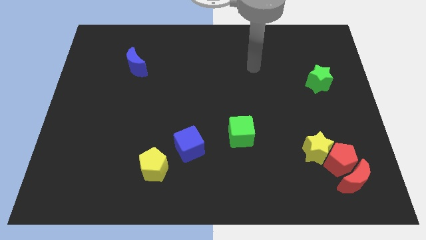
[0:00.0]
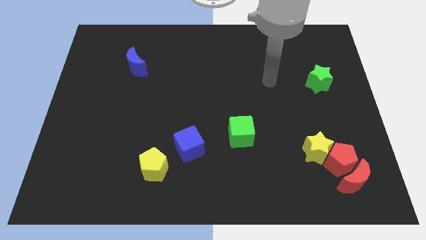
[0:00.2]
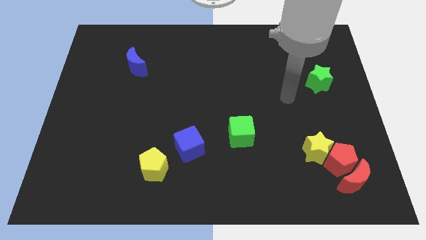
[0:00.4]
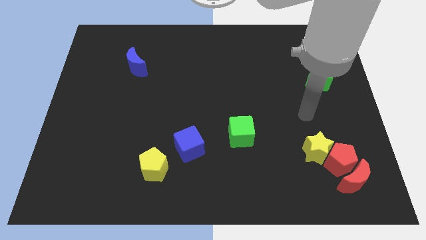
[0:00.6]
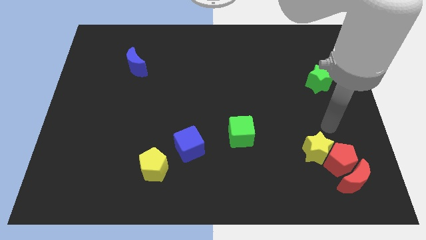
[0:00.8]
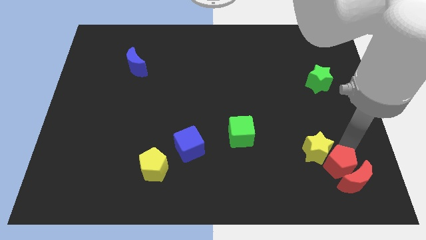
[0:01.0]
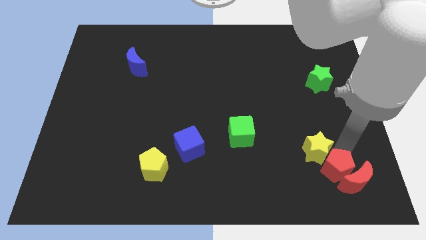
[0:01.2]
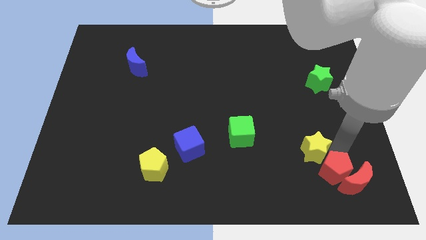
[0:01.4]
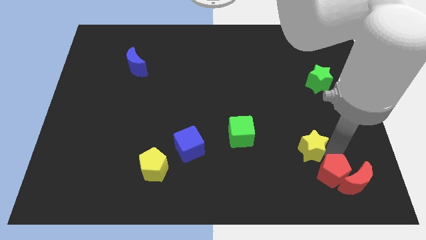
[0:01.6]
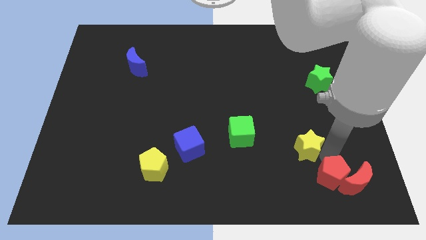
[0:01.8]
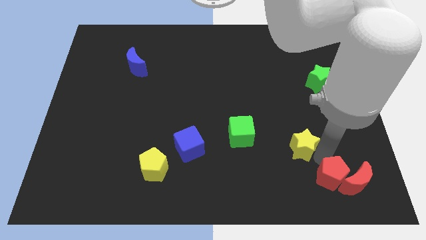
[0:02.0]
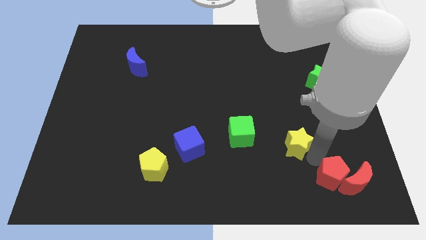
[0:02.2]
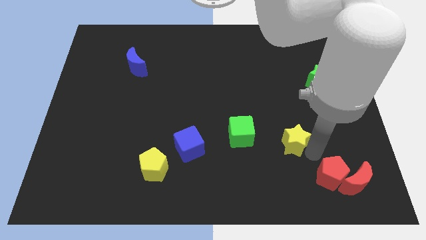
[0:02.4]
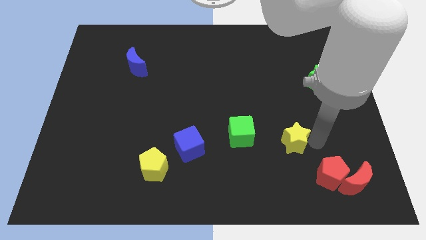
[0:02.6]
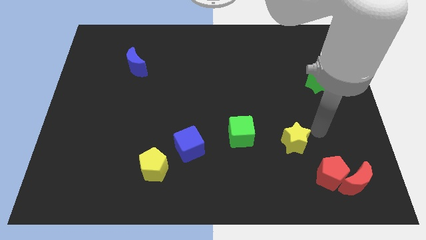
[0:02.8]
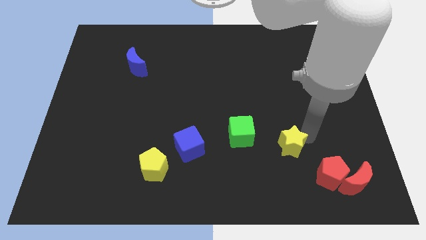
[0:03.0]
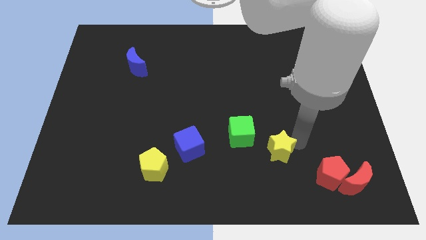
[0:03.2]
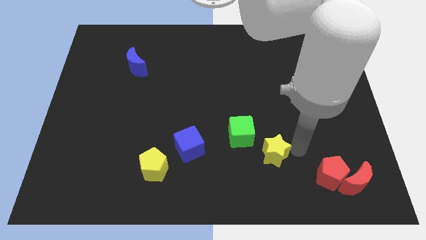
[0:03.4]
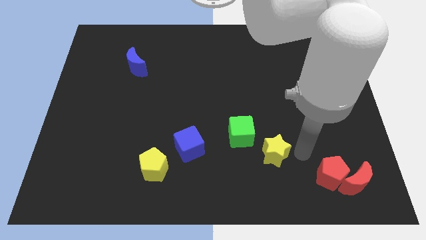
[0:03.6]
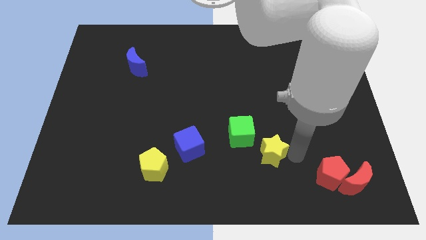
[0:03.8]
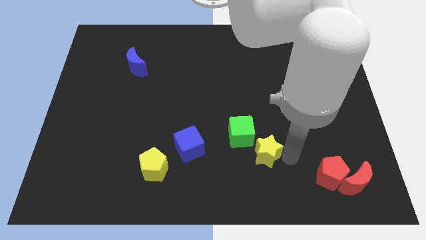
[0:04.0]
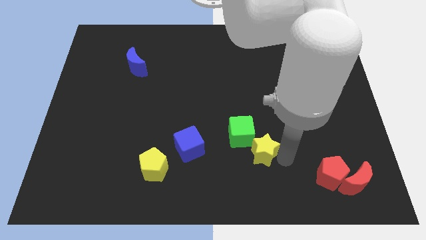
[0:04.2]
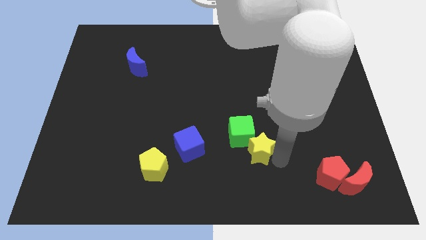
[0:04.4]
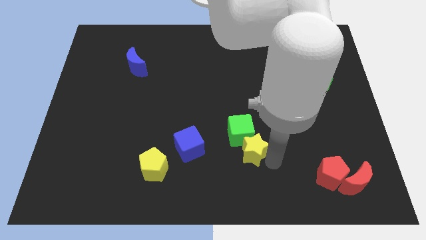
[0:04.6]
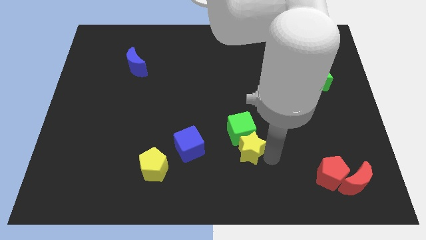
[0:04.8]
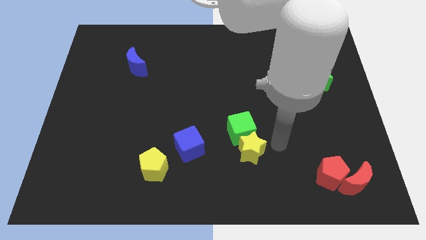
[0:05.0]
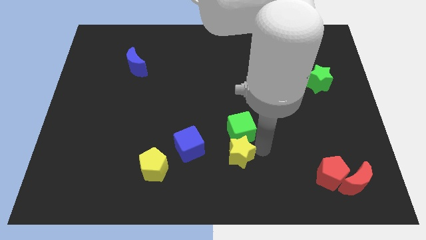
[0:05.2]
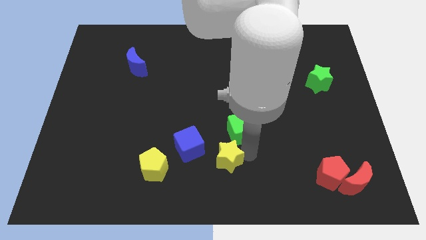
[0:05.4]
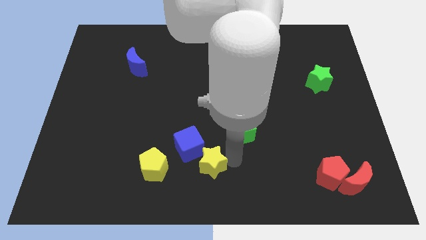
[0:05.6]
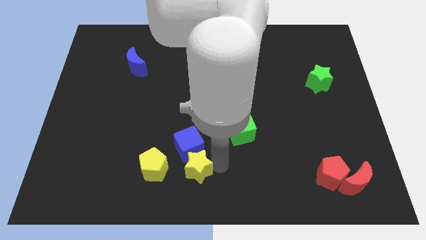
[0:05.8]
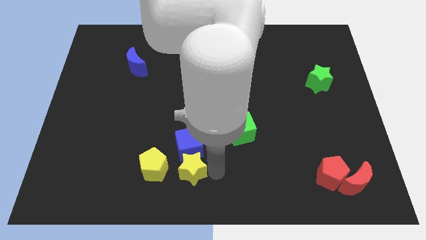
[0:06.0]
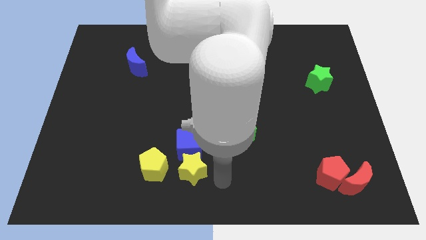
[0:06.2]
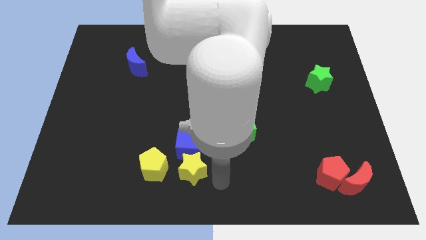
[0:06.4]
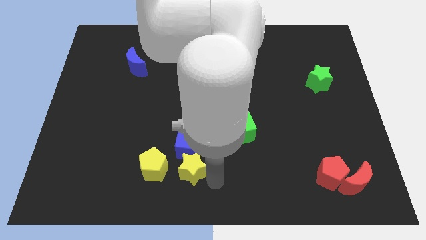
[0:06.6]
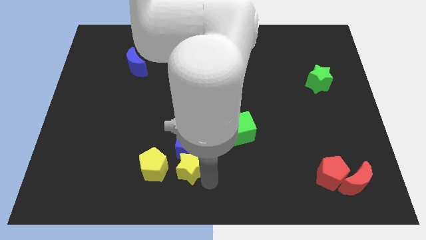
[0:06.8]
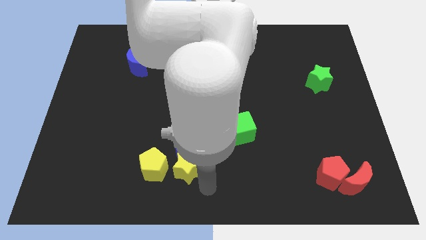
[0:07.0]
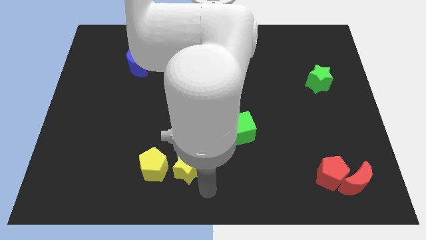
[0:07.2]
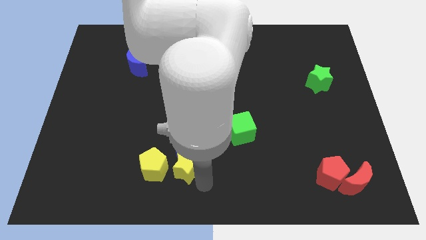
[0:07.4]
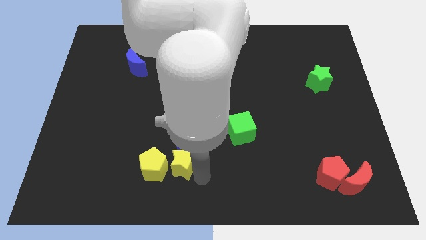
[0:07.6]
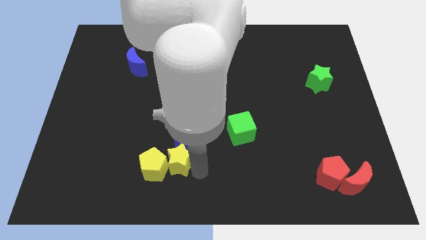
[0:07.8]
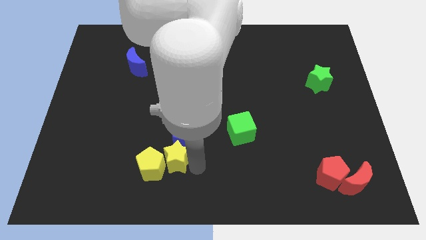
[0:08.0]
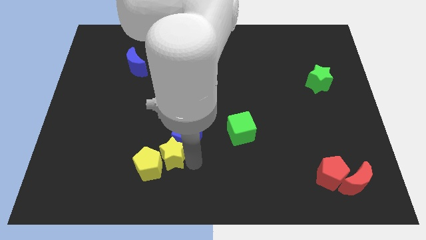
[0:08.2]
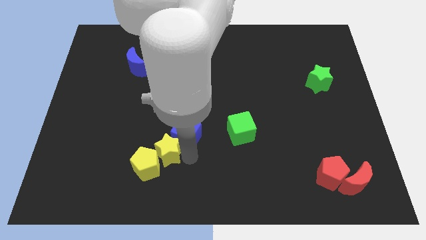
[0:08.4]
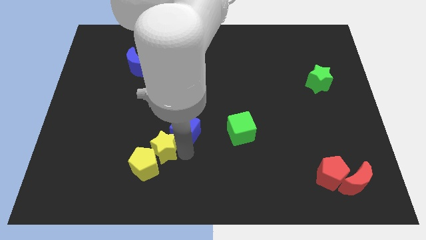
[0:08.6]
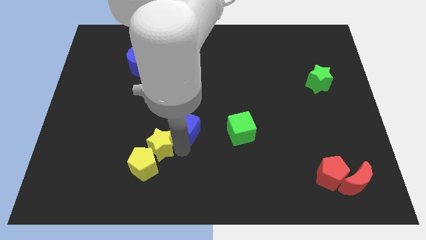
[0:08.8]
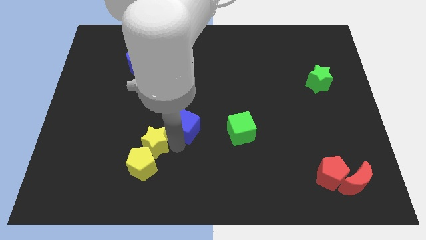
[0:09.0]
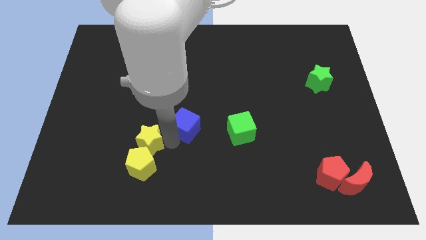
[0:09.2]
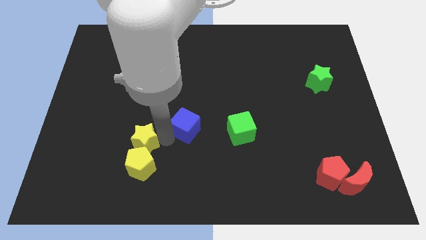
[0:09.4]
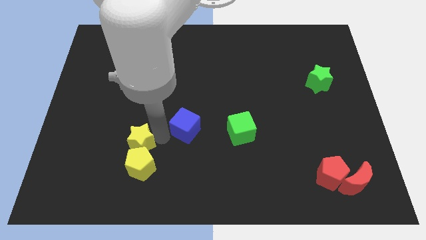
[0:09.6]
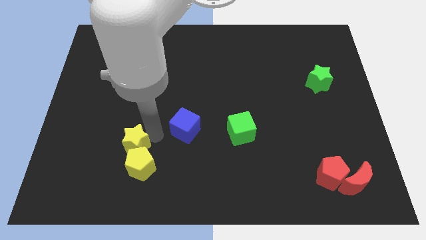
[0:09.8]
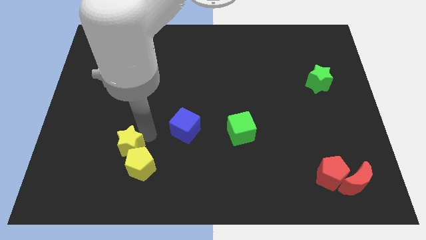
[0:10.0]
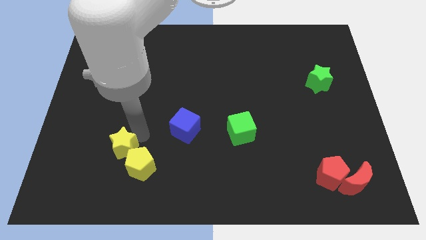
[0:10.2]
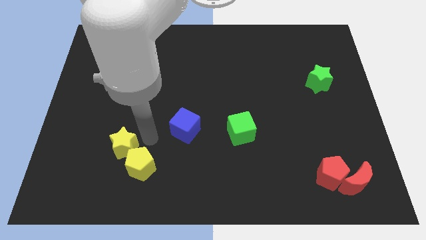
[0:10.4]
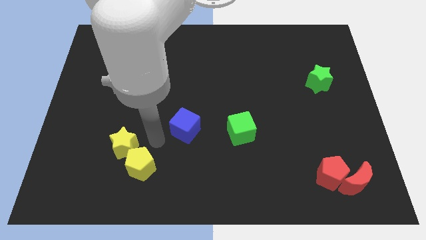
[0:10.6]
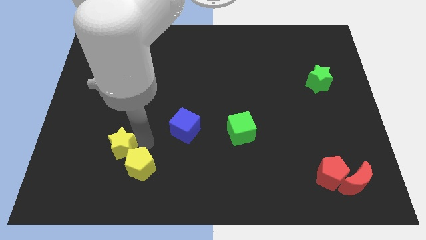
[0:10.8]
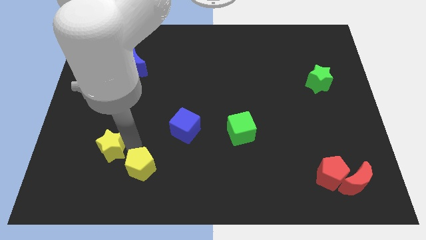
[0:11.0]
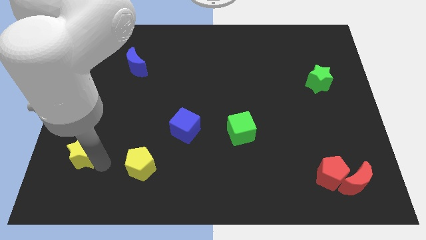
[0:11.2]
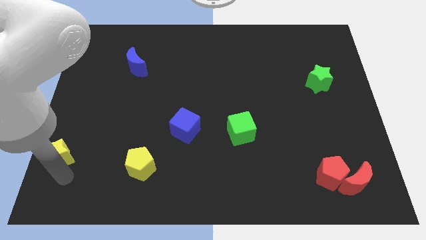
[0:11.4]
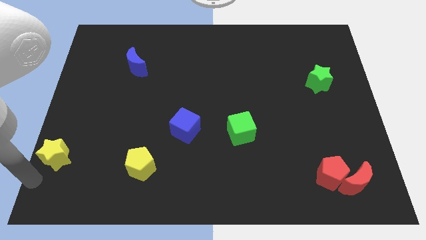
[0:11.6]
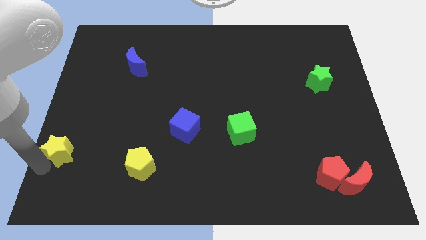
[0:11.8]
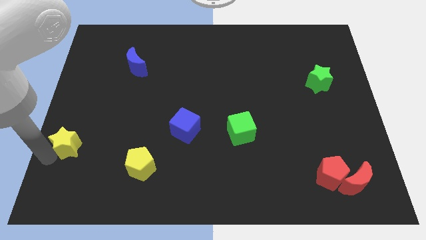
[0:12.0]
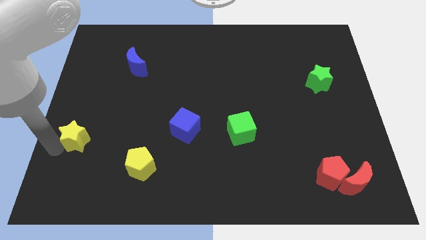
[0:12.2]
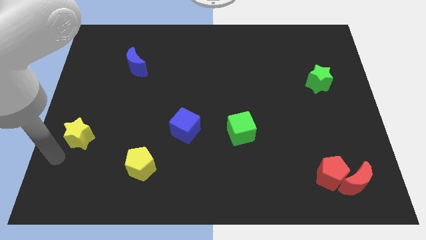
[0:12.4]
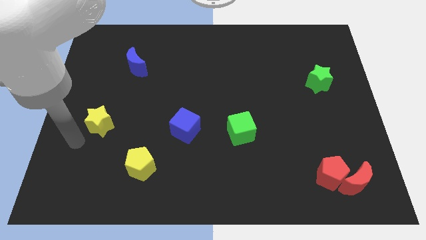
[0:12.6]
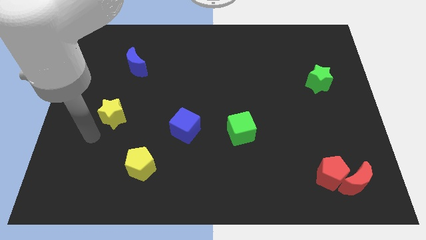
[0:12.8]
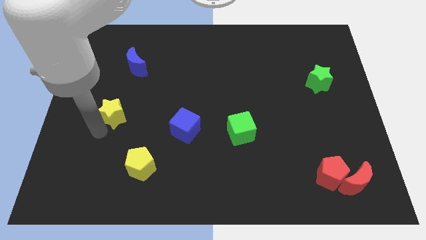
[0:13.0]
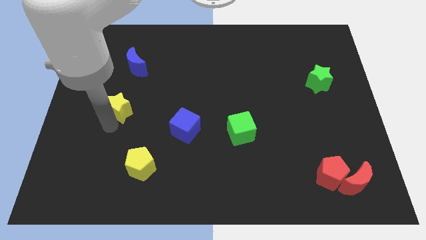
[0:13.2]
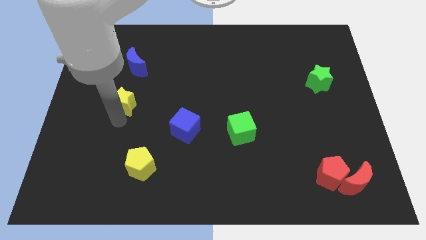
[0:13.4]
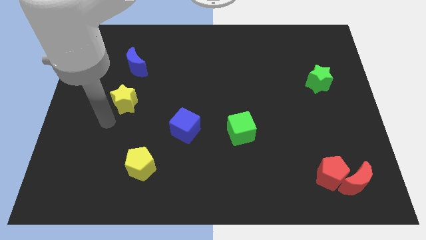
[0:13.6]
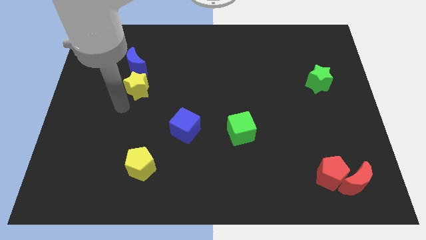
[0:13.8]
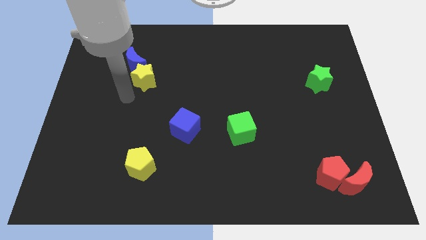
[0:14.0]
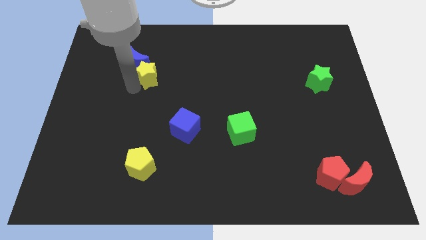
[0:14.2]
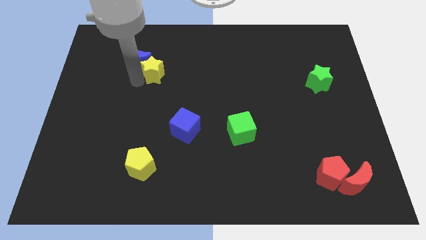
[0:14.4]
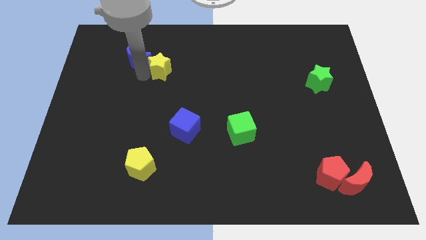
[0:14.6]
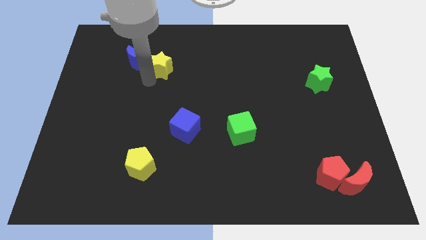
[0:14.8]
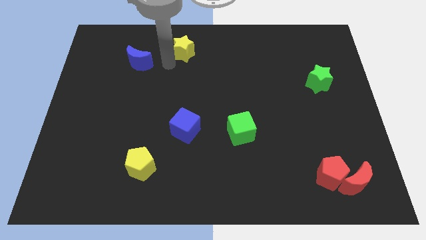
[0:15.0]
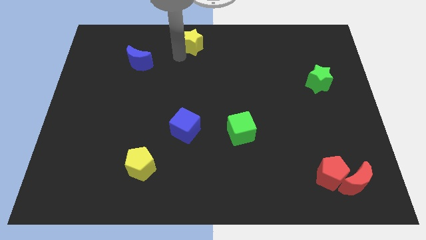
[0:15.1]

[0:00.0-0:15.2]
put the yellow star to the towards your base
